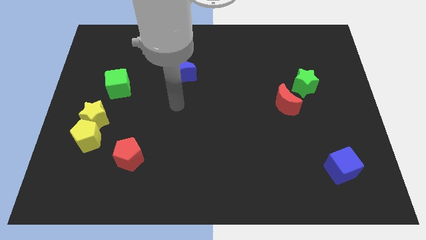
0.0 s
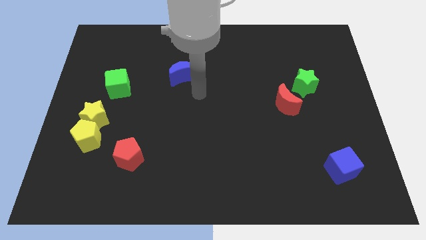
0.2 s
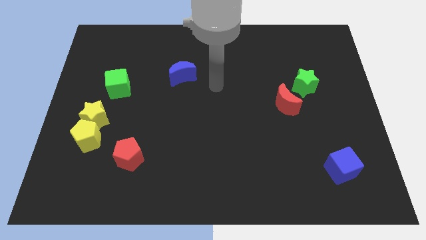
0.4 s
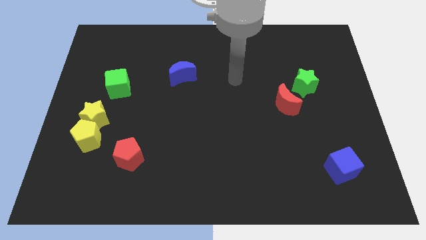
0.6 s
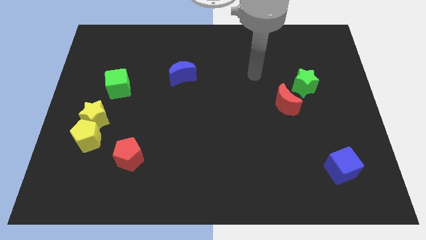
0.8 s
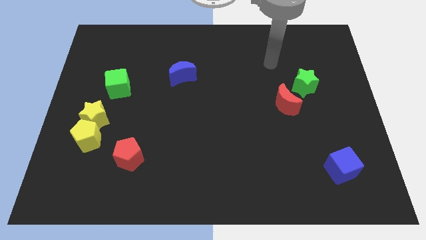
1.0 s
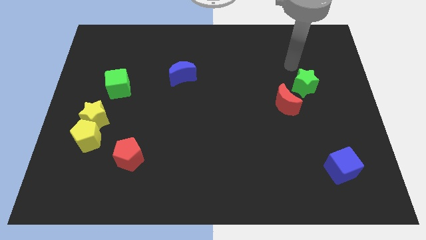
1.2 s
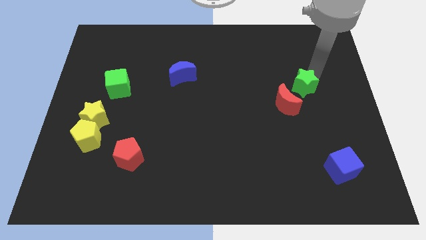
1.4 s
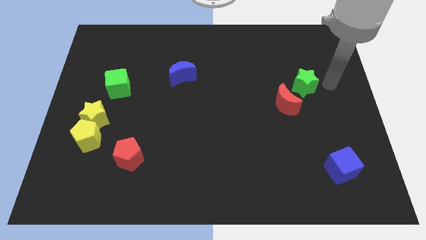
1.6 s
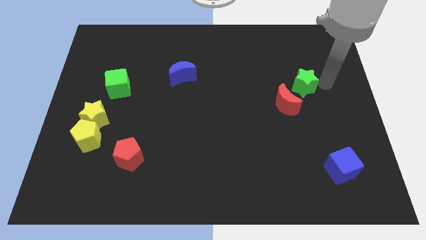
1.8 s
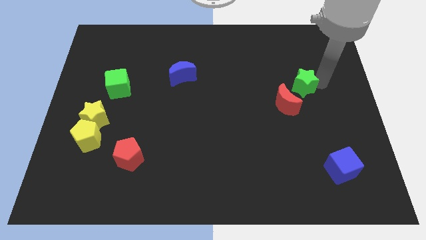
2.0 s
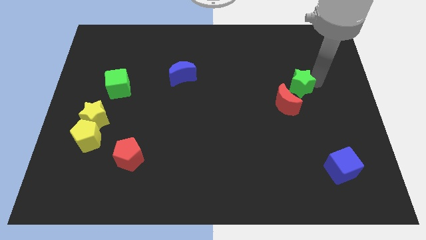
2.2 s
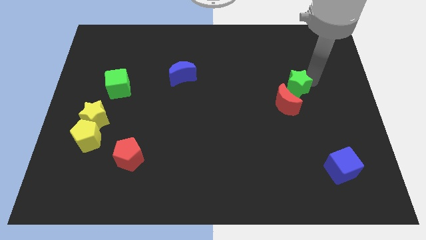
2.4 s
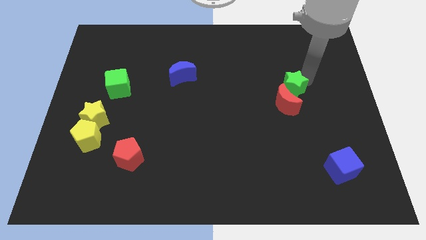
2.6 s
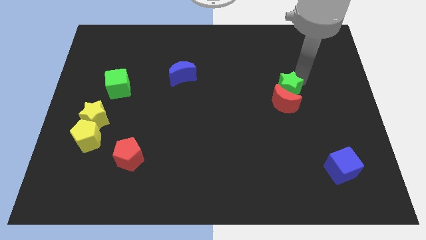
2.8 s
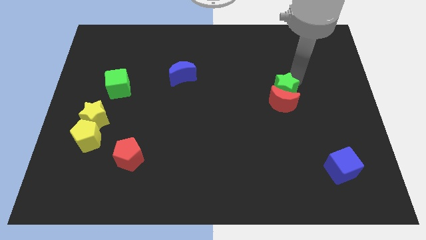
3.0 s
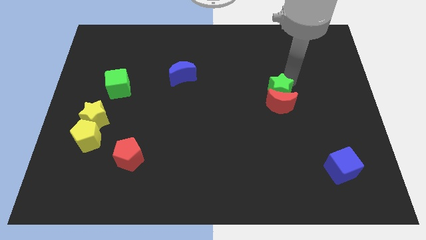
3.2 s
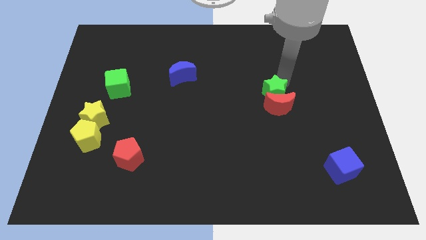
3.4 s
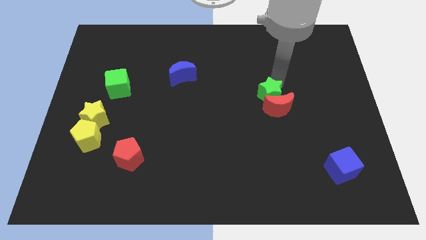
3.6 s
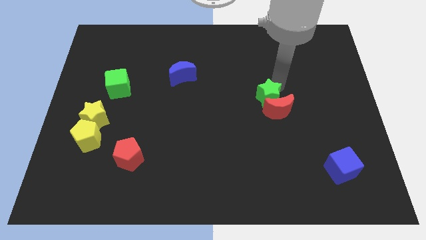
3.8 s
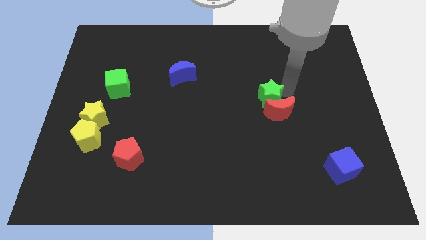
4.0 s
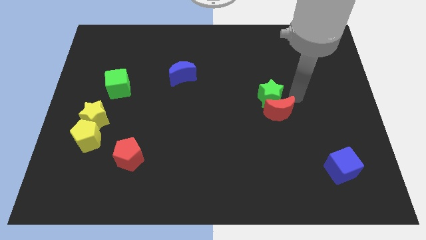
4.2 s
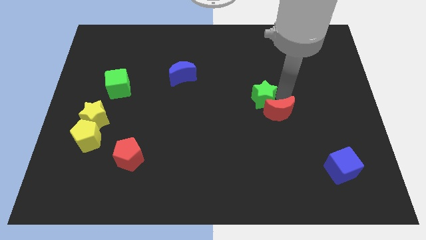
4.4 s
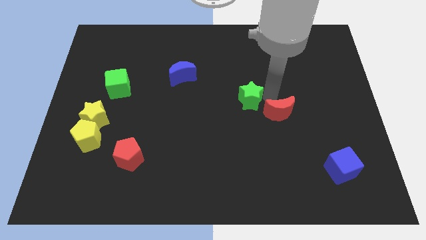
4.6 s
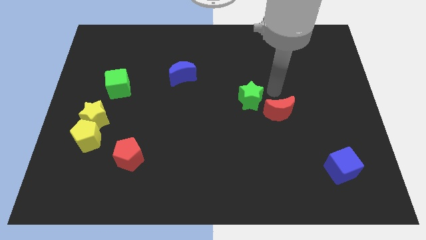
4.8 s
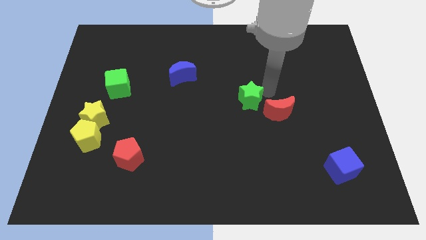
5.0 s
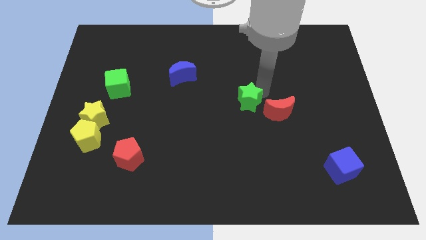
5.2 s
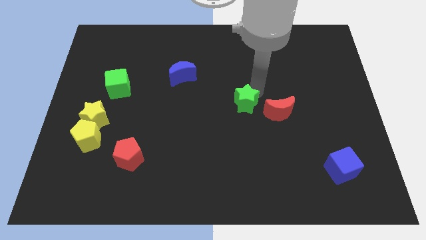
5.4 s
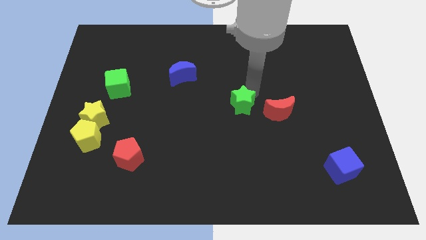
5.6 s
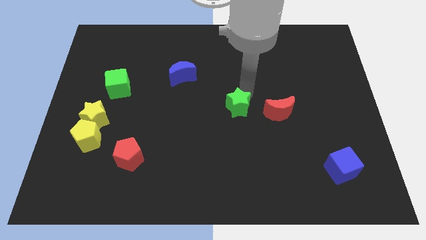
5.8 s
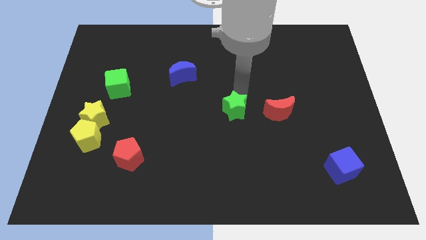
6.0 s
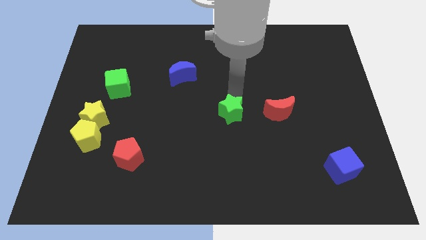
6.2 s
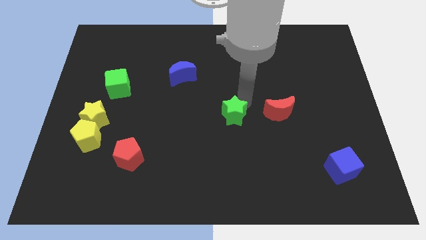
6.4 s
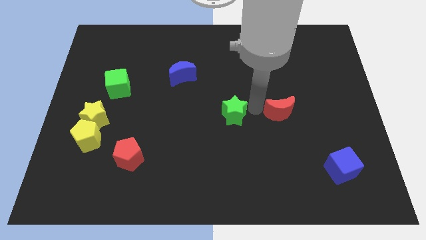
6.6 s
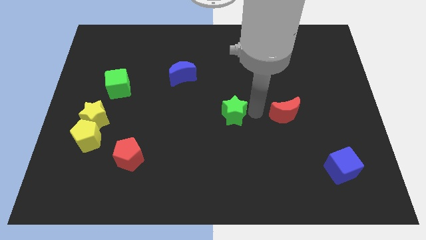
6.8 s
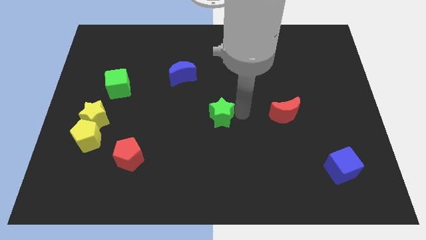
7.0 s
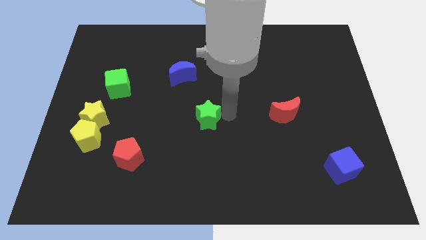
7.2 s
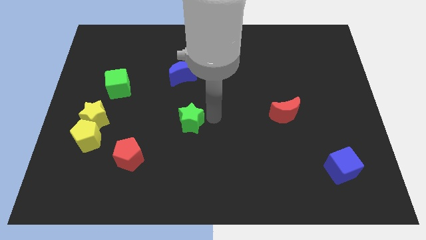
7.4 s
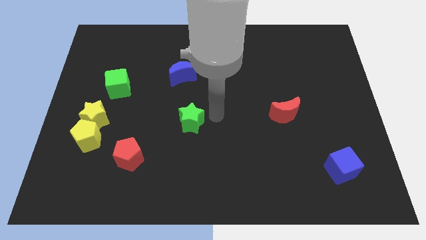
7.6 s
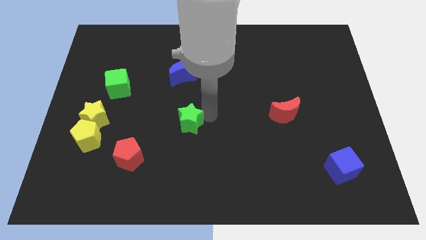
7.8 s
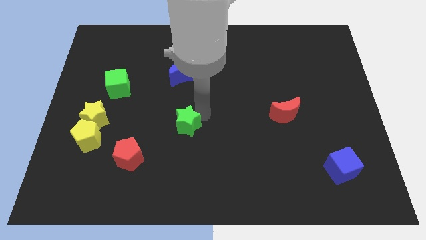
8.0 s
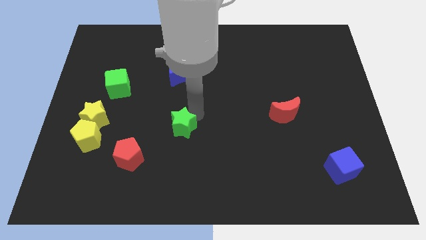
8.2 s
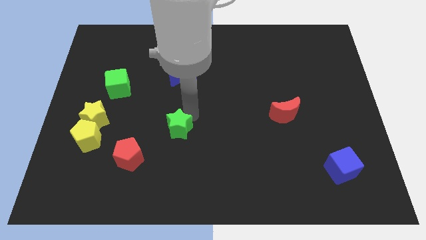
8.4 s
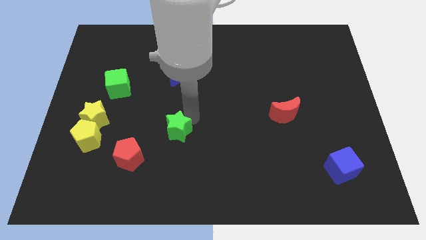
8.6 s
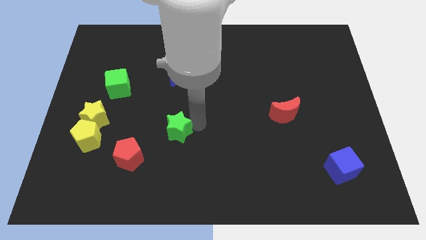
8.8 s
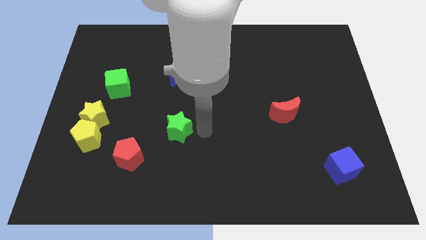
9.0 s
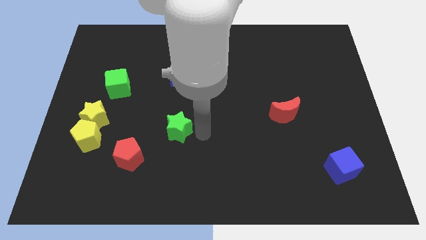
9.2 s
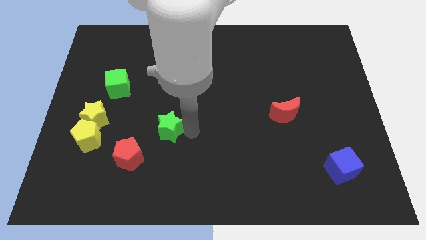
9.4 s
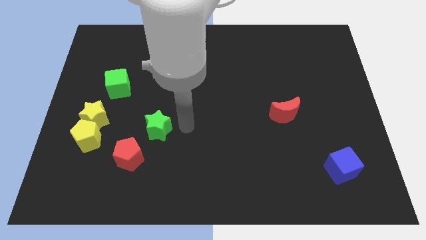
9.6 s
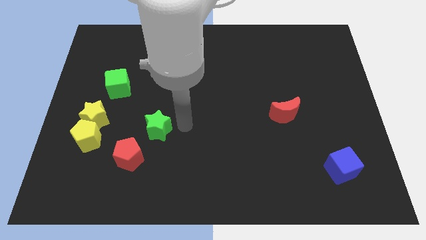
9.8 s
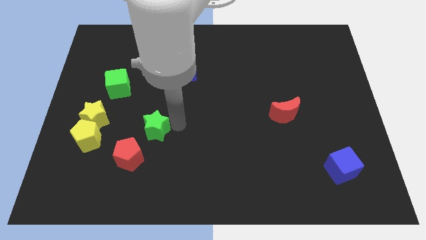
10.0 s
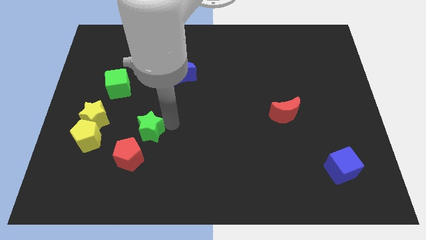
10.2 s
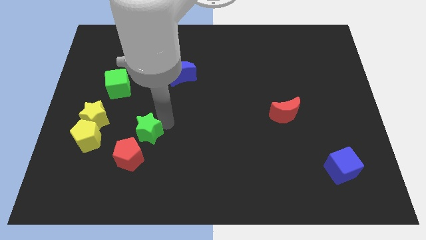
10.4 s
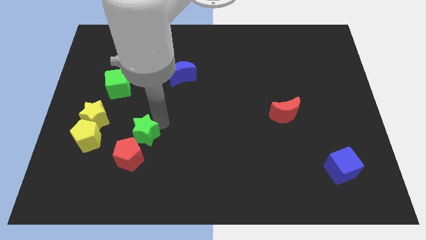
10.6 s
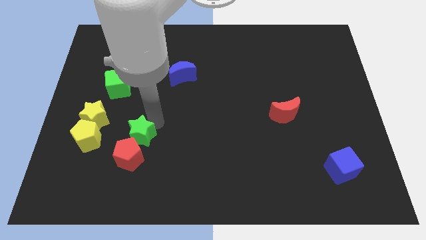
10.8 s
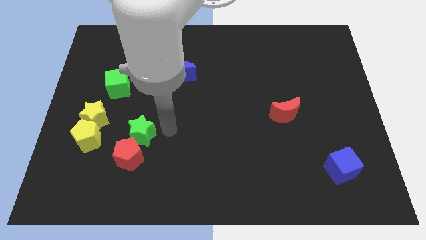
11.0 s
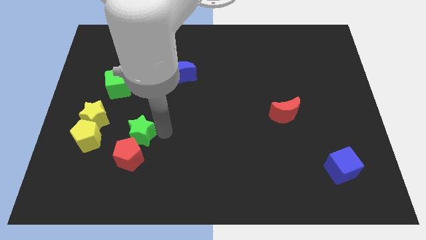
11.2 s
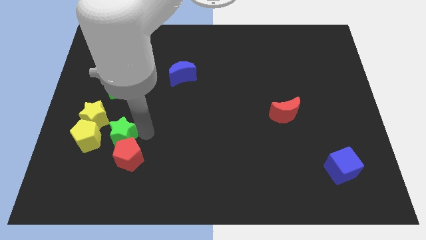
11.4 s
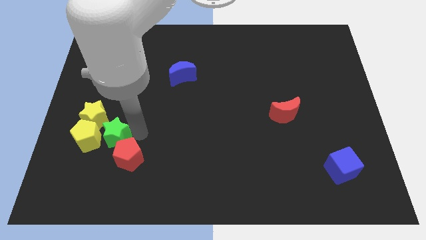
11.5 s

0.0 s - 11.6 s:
slide the green star towards the yellow pentagon

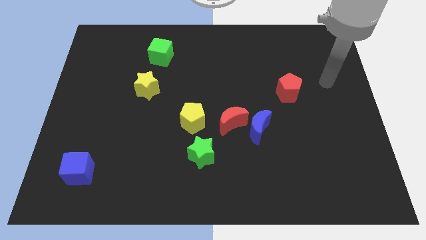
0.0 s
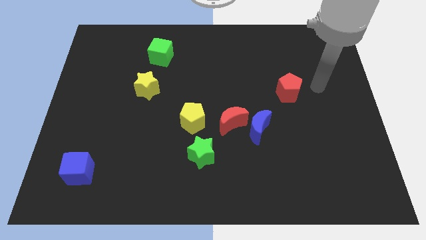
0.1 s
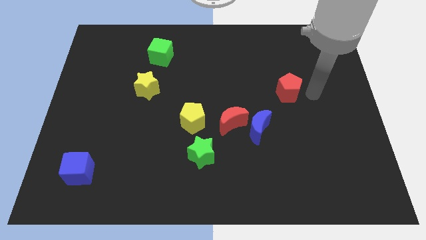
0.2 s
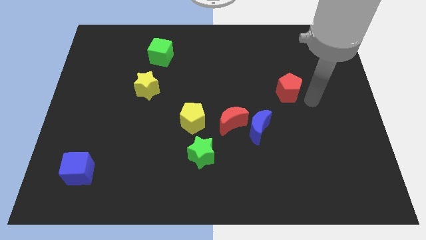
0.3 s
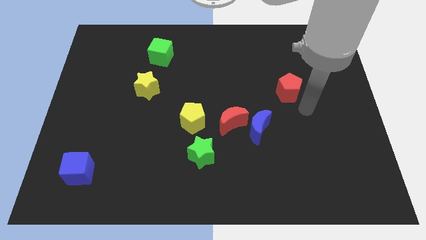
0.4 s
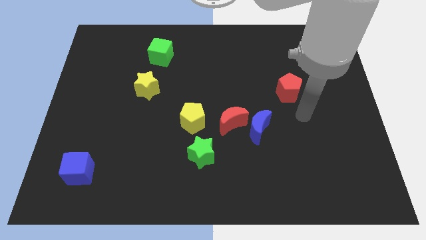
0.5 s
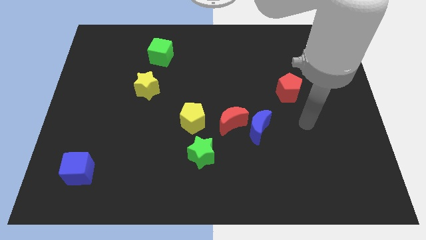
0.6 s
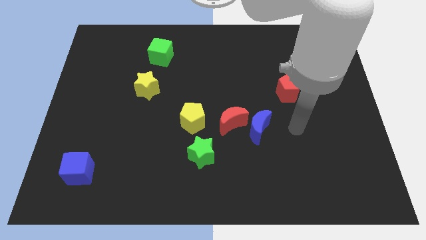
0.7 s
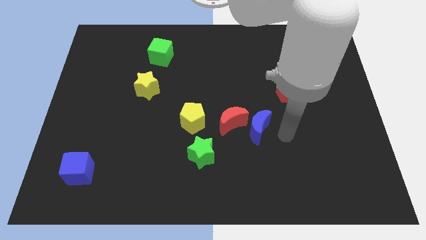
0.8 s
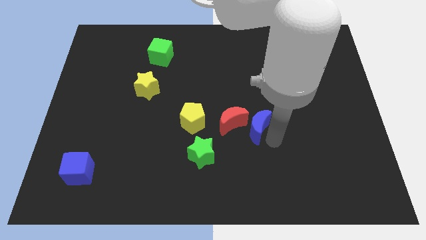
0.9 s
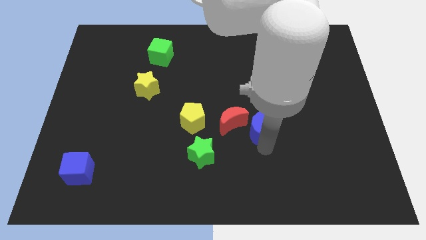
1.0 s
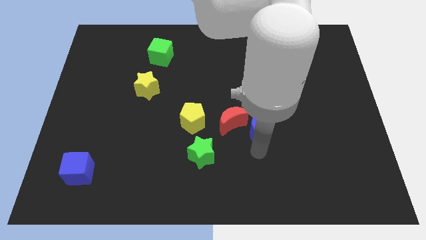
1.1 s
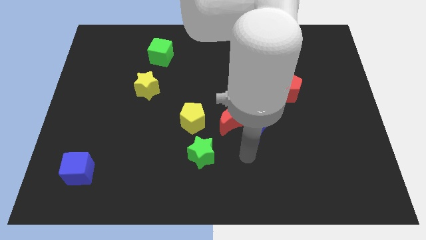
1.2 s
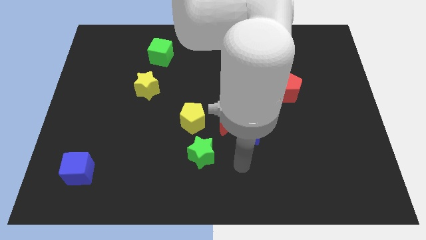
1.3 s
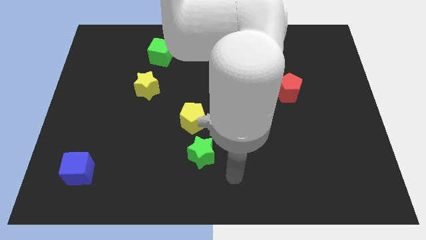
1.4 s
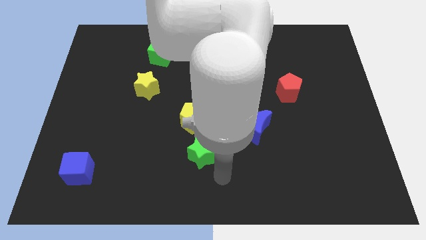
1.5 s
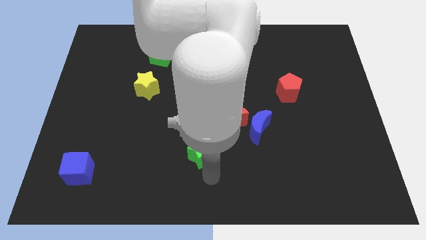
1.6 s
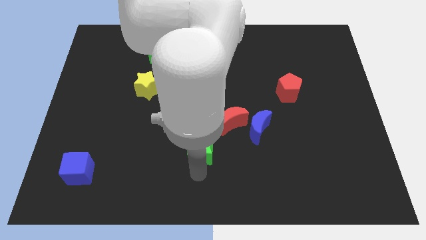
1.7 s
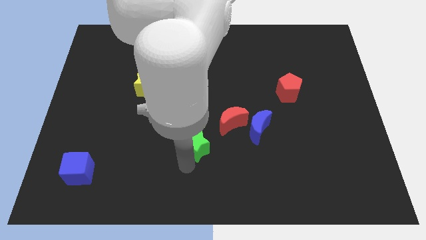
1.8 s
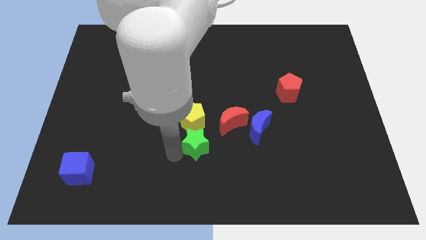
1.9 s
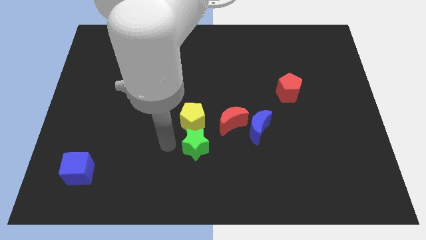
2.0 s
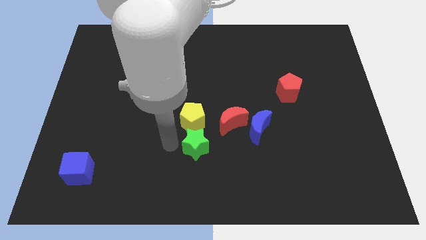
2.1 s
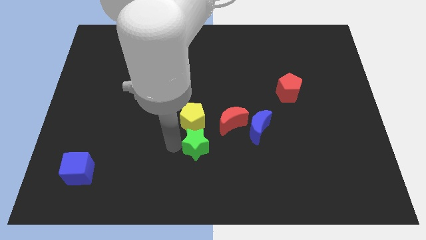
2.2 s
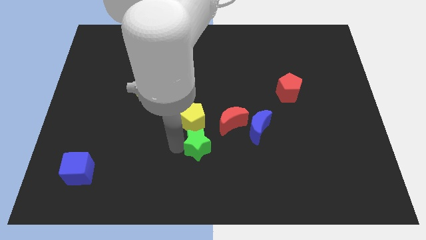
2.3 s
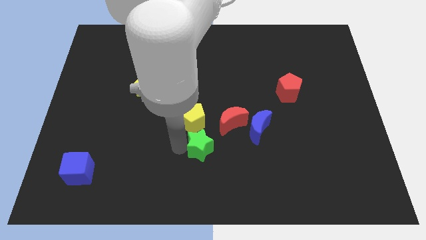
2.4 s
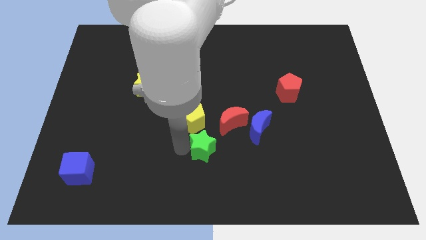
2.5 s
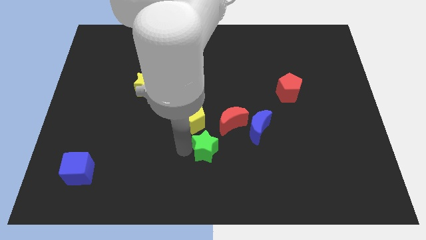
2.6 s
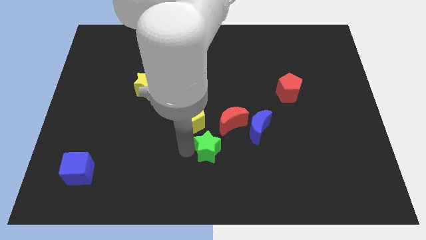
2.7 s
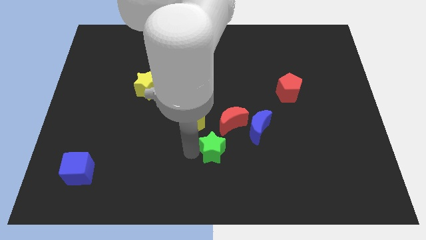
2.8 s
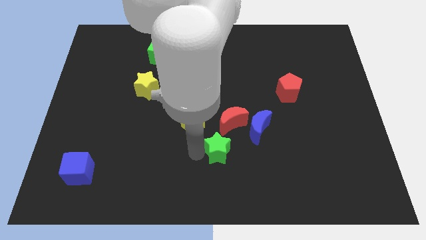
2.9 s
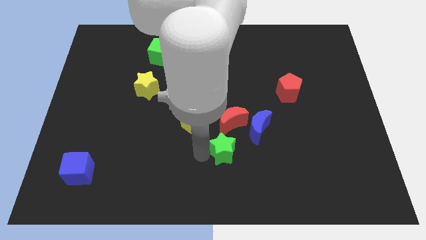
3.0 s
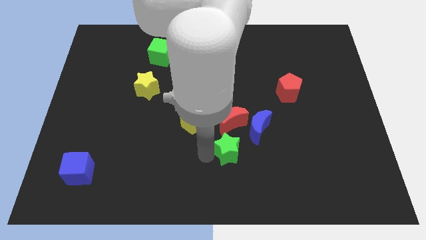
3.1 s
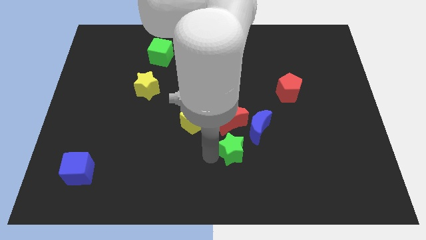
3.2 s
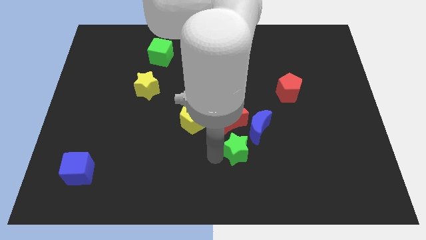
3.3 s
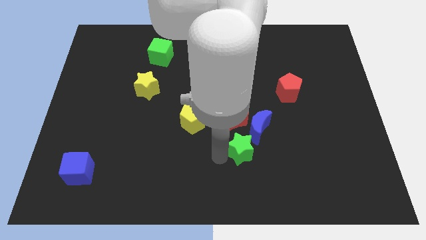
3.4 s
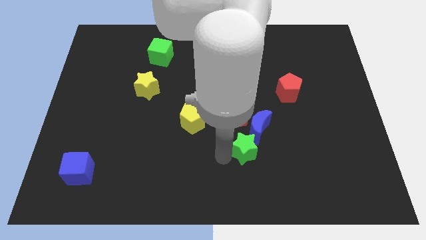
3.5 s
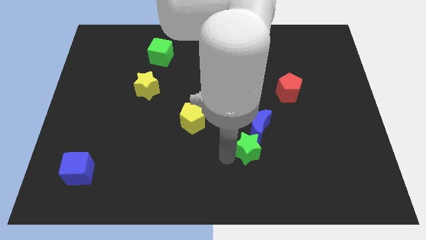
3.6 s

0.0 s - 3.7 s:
slide the green star next to the blue moon
